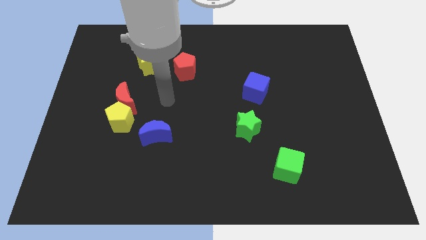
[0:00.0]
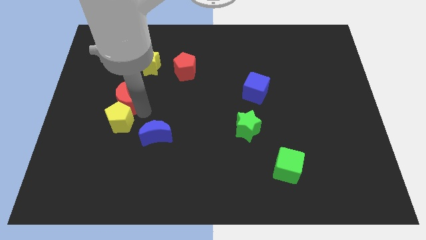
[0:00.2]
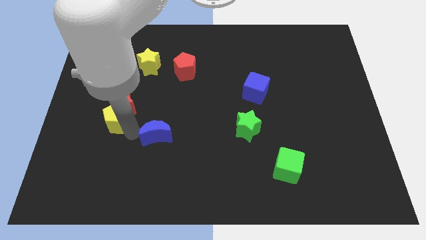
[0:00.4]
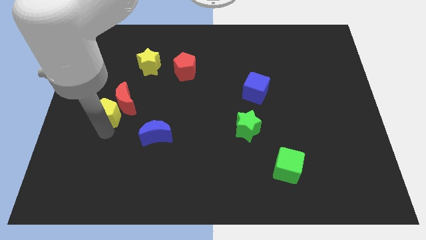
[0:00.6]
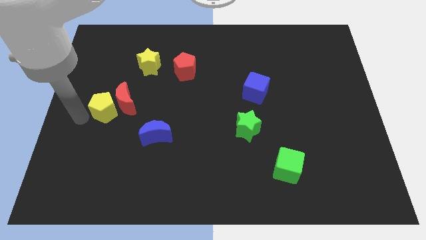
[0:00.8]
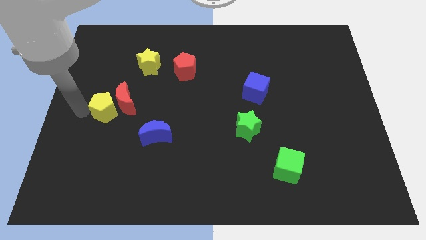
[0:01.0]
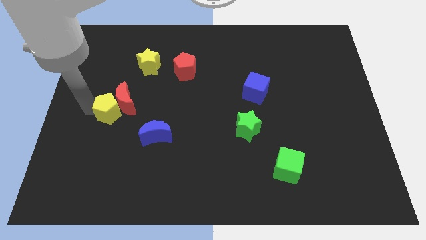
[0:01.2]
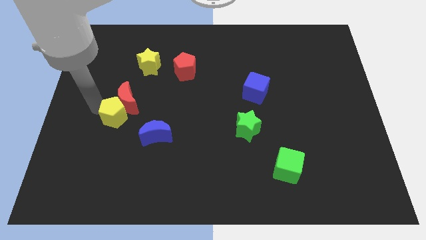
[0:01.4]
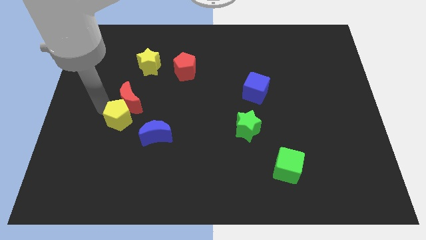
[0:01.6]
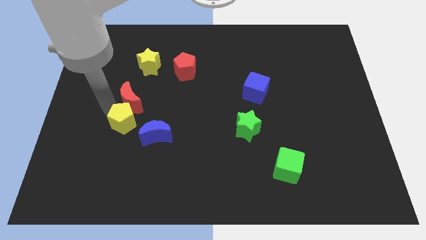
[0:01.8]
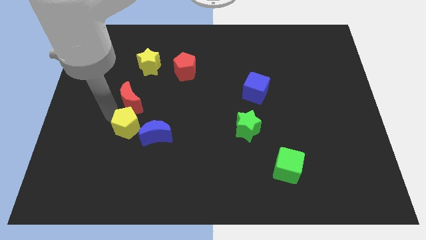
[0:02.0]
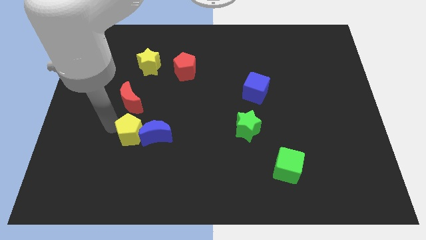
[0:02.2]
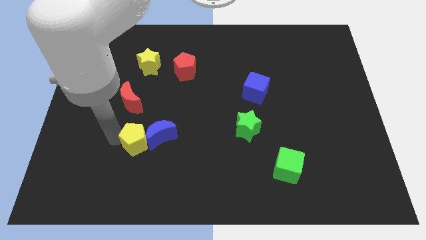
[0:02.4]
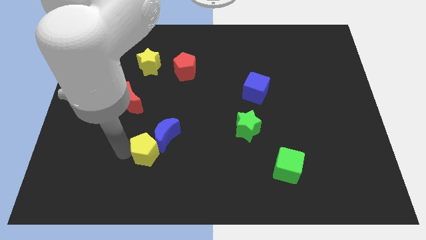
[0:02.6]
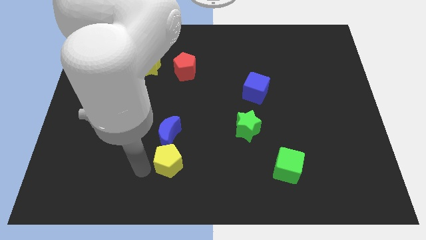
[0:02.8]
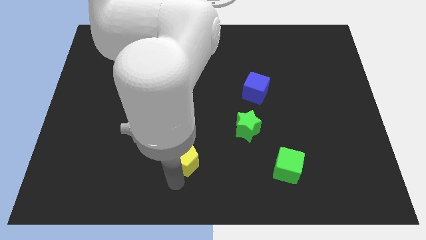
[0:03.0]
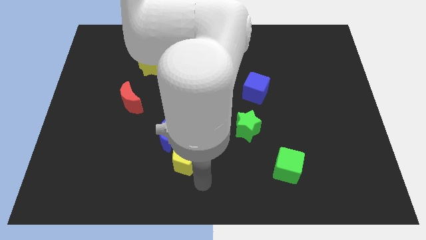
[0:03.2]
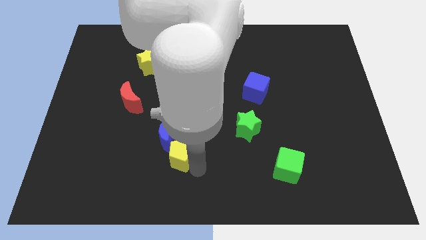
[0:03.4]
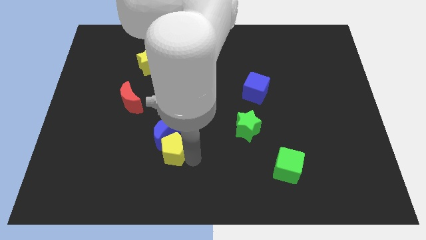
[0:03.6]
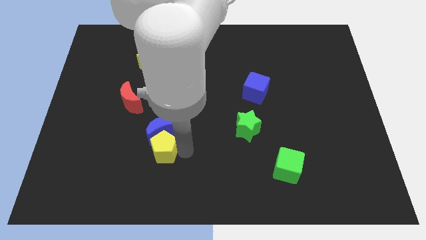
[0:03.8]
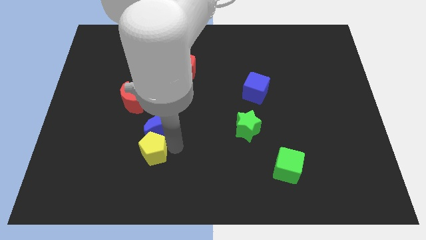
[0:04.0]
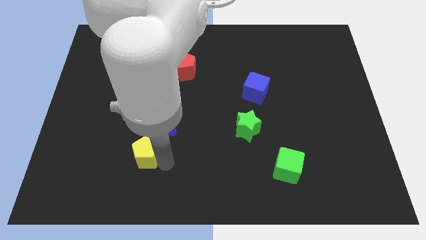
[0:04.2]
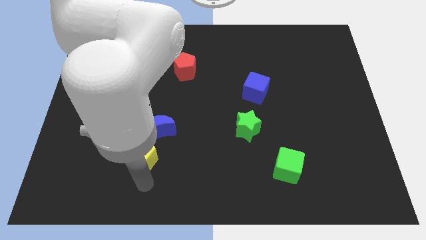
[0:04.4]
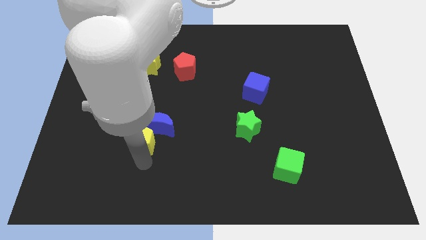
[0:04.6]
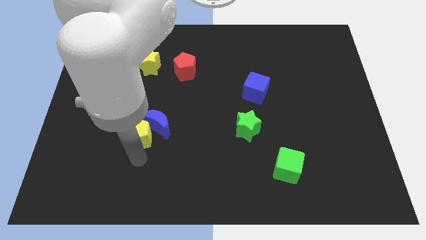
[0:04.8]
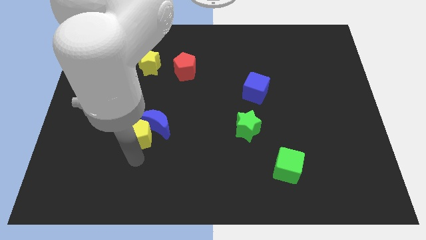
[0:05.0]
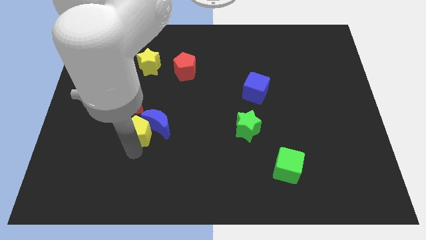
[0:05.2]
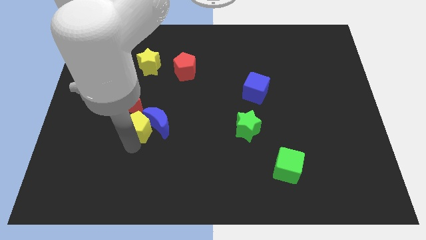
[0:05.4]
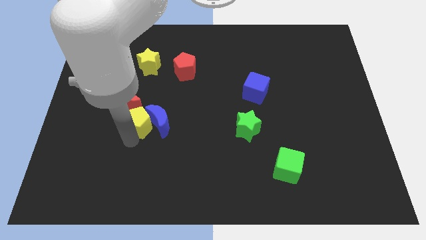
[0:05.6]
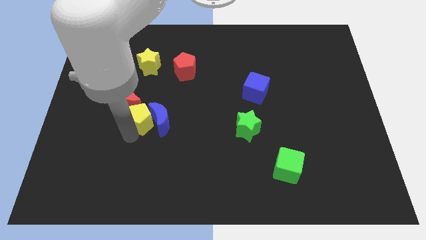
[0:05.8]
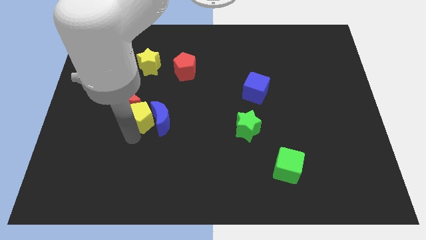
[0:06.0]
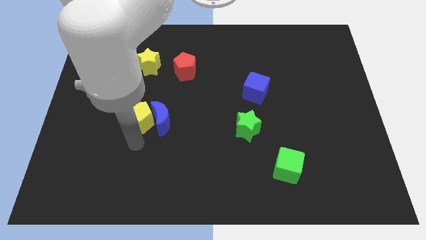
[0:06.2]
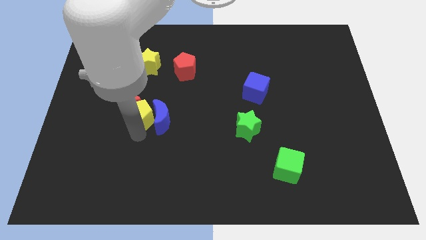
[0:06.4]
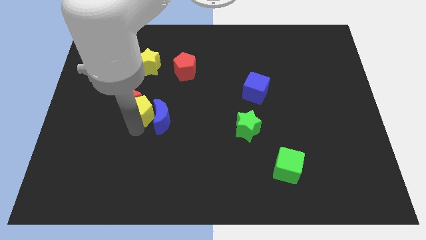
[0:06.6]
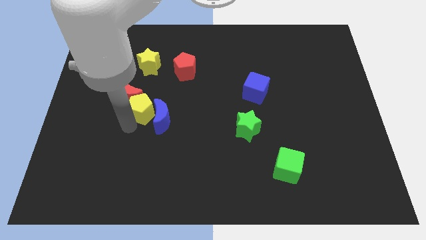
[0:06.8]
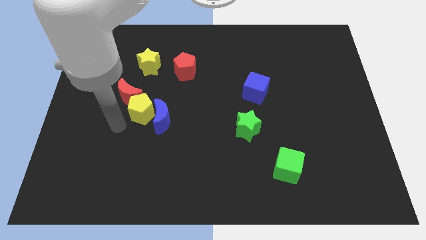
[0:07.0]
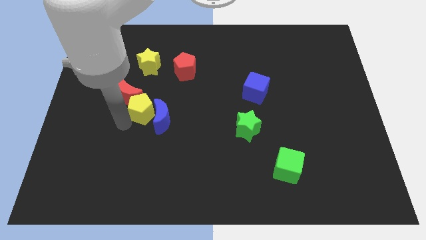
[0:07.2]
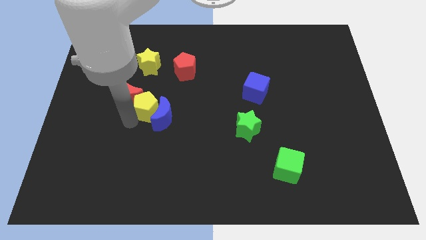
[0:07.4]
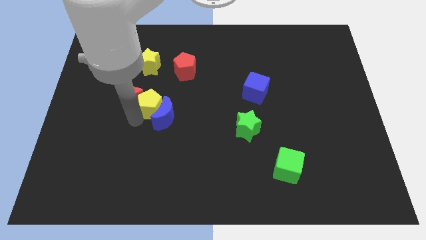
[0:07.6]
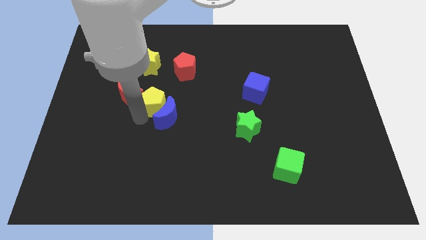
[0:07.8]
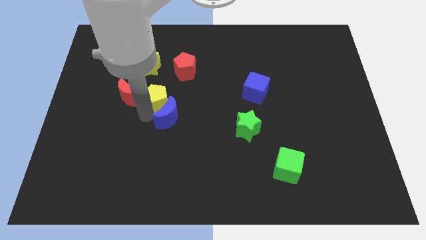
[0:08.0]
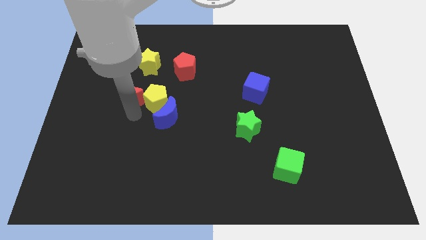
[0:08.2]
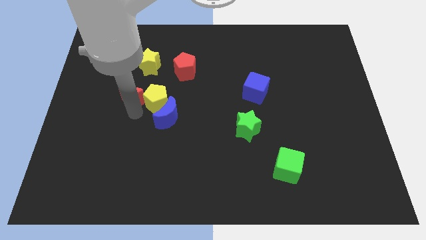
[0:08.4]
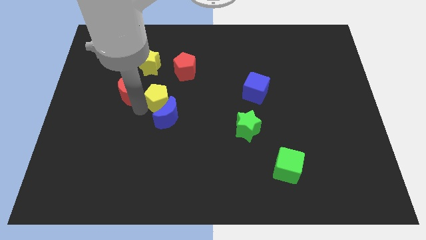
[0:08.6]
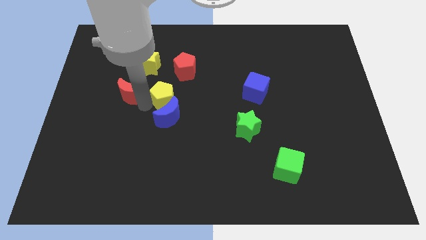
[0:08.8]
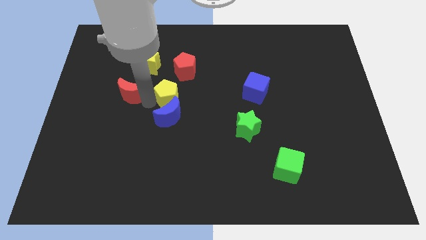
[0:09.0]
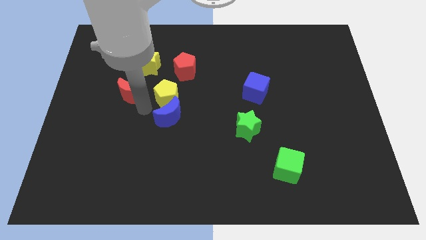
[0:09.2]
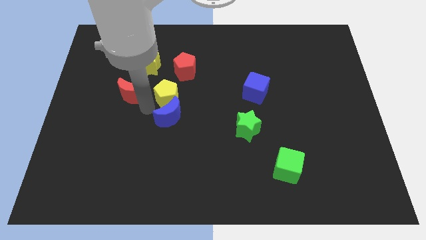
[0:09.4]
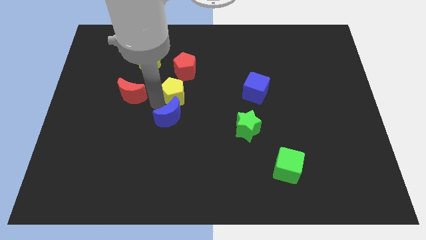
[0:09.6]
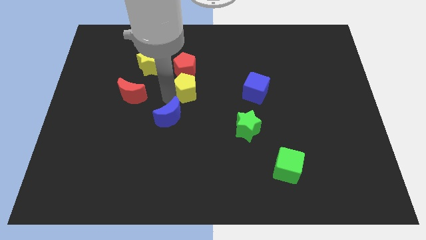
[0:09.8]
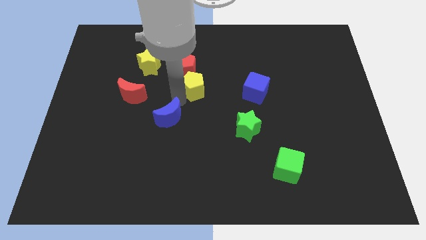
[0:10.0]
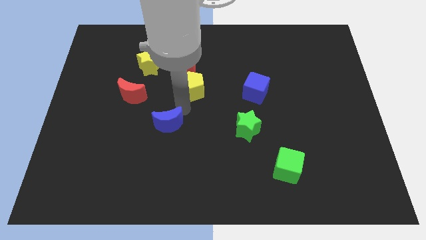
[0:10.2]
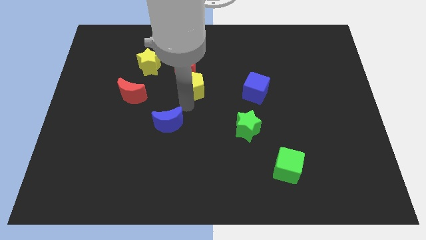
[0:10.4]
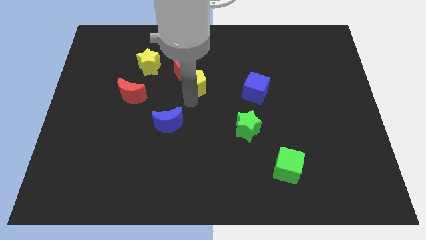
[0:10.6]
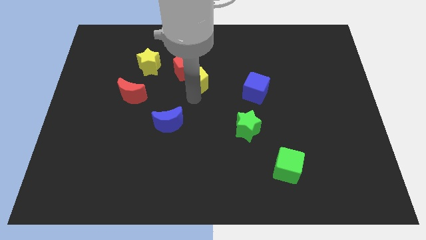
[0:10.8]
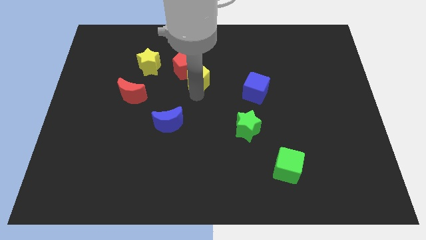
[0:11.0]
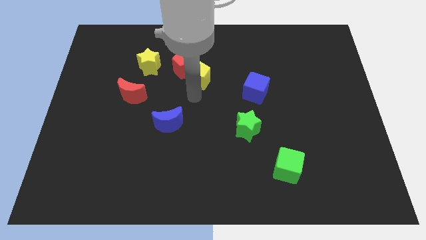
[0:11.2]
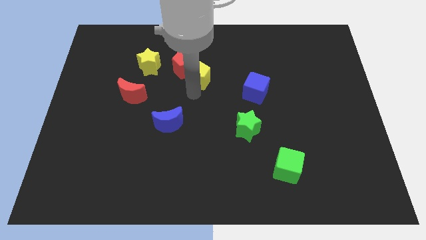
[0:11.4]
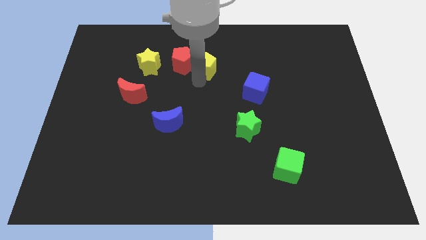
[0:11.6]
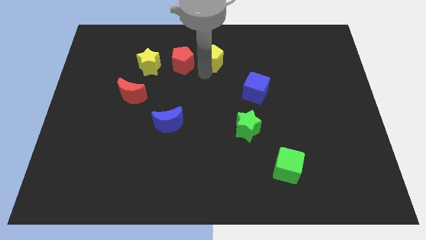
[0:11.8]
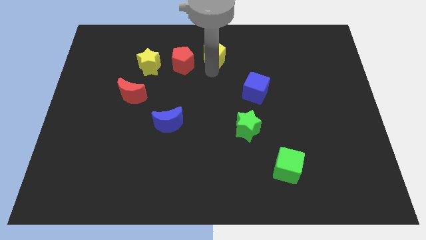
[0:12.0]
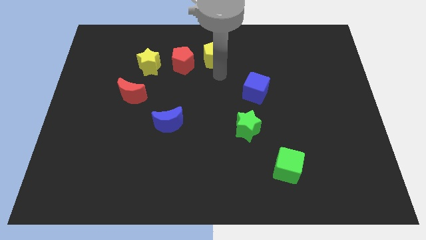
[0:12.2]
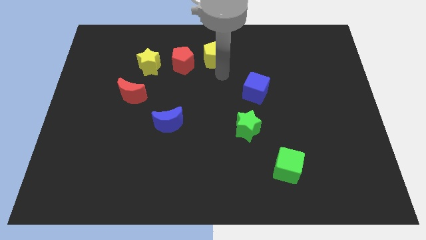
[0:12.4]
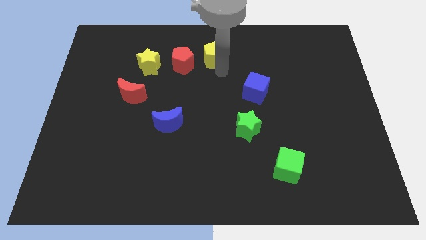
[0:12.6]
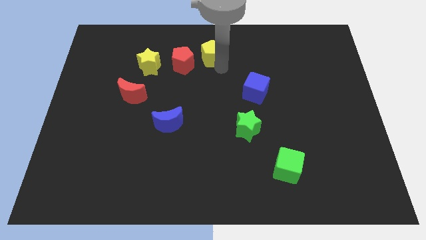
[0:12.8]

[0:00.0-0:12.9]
move the yellow pentagon to the top side
